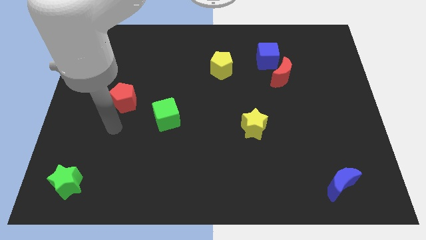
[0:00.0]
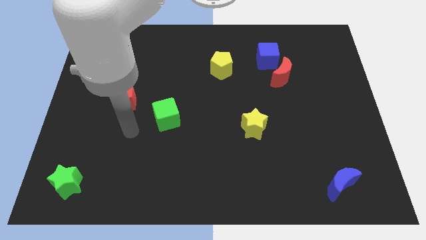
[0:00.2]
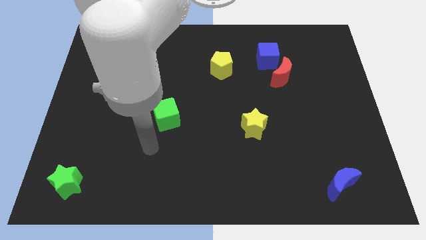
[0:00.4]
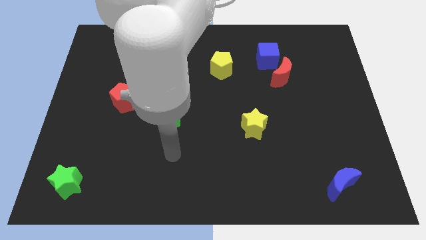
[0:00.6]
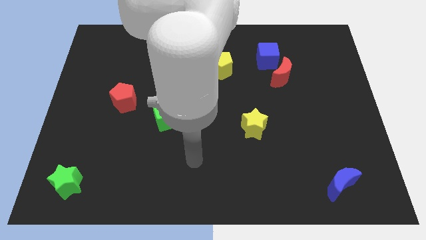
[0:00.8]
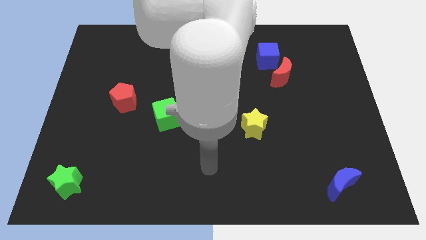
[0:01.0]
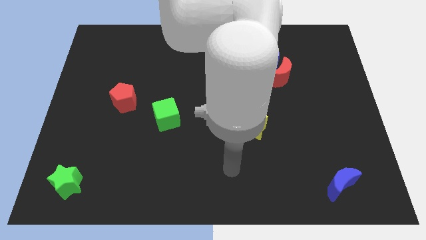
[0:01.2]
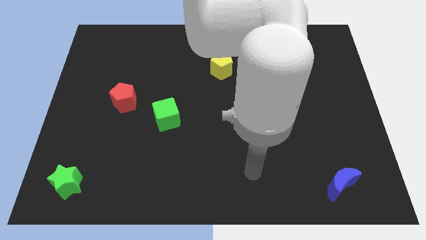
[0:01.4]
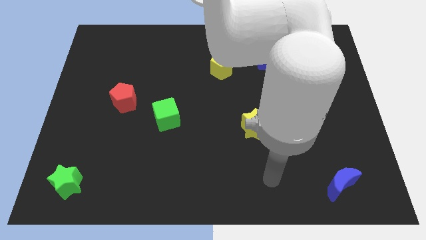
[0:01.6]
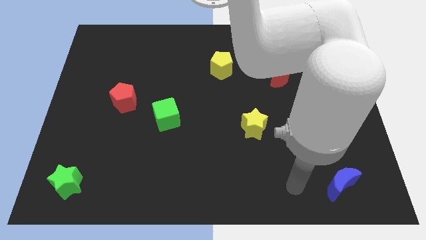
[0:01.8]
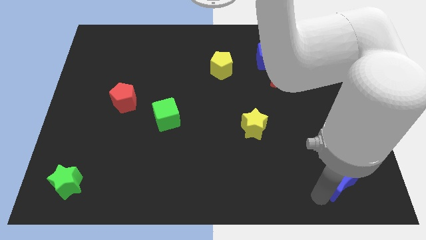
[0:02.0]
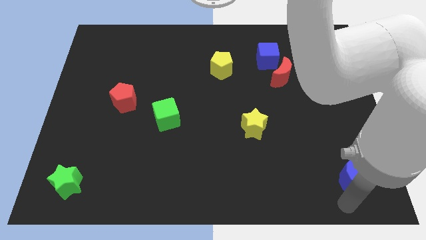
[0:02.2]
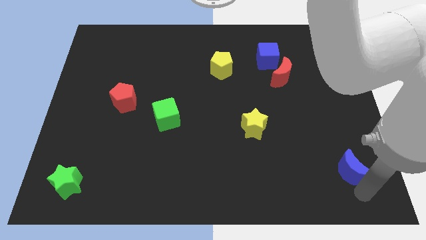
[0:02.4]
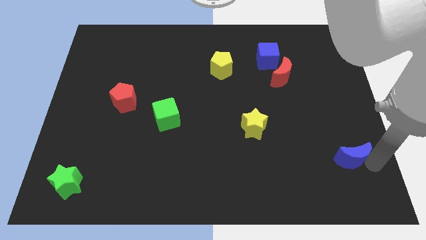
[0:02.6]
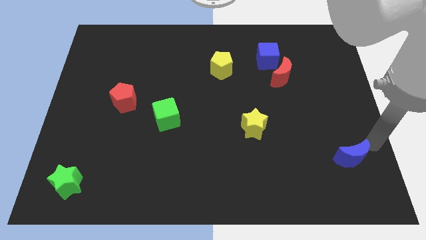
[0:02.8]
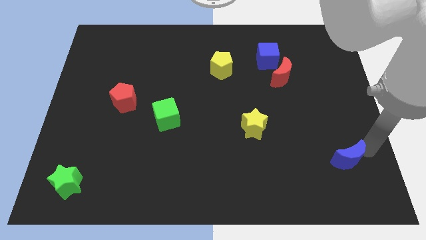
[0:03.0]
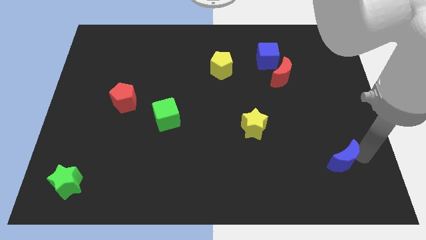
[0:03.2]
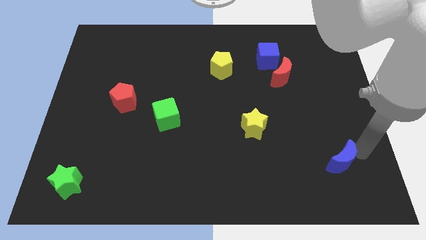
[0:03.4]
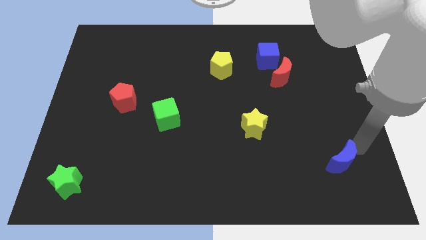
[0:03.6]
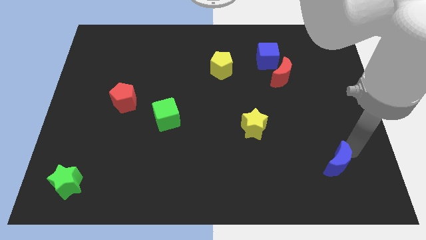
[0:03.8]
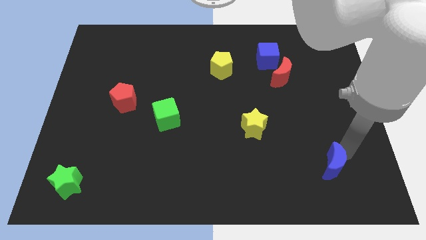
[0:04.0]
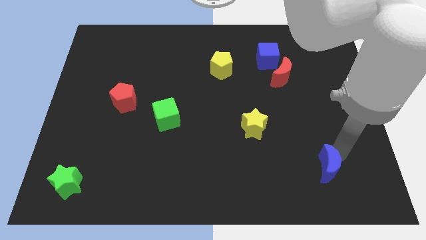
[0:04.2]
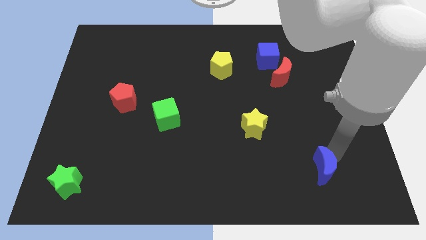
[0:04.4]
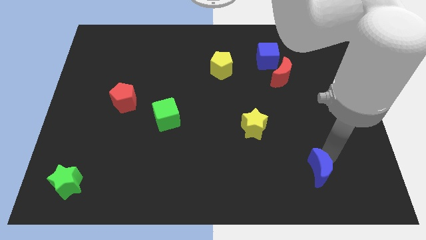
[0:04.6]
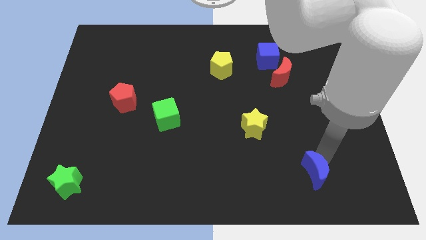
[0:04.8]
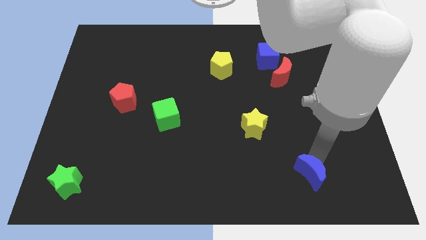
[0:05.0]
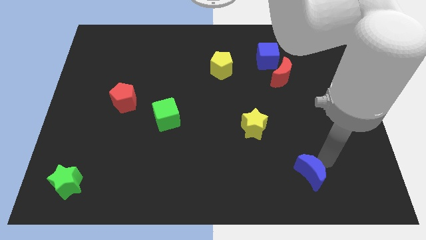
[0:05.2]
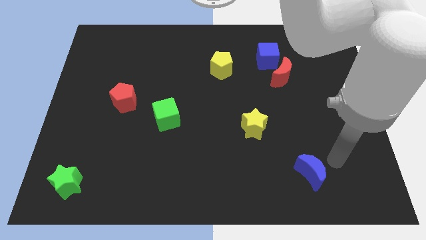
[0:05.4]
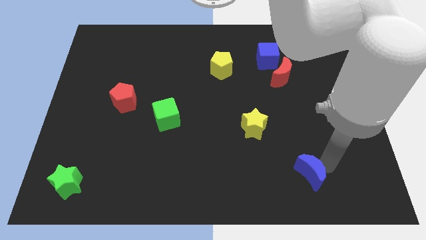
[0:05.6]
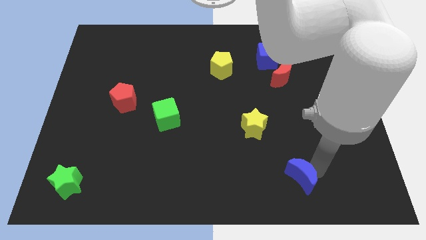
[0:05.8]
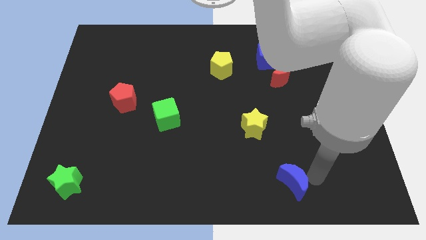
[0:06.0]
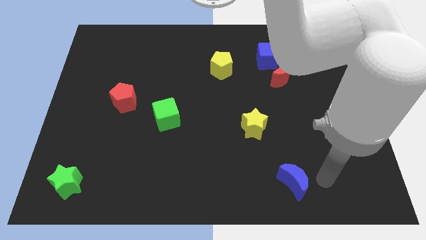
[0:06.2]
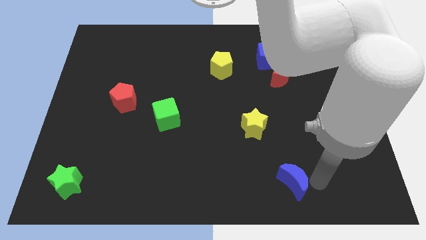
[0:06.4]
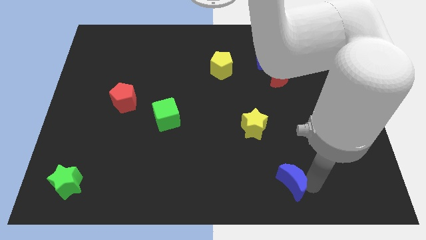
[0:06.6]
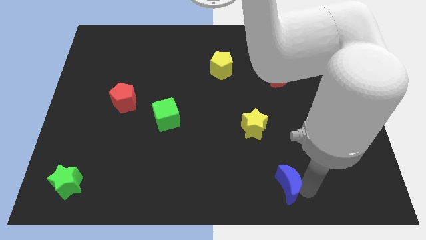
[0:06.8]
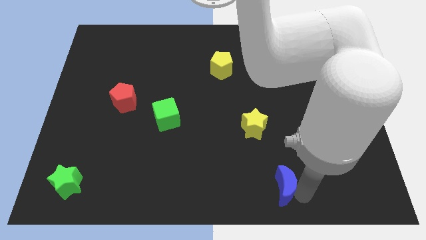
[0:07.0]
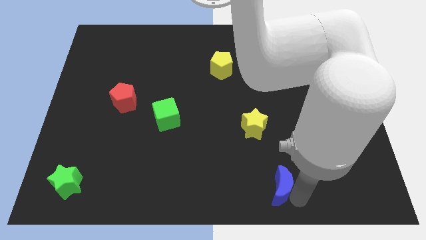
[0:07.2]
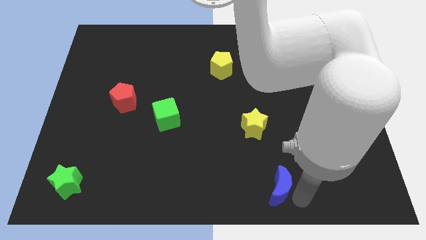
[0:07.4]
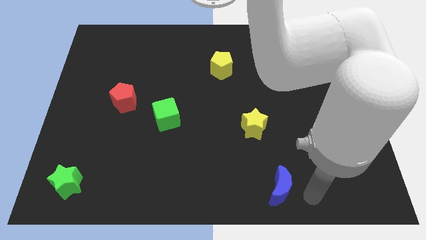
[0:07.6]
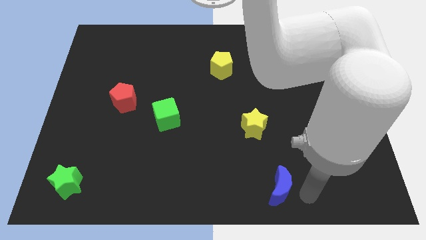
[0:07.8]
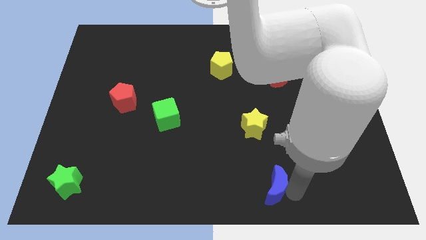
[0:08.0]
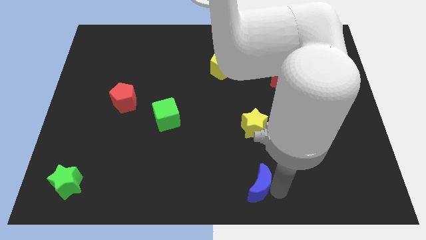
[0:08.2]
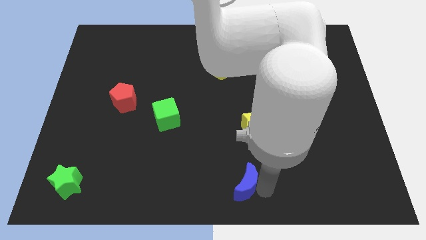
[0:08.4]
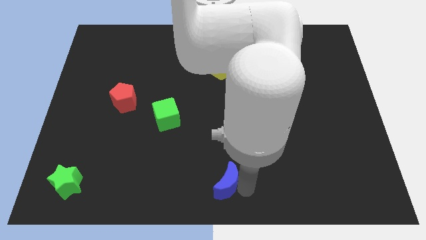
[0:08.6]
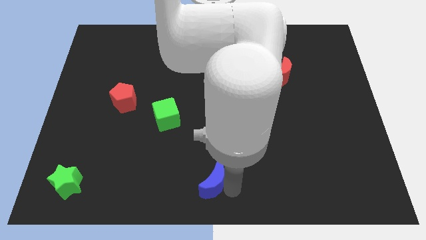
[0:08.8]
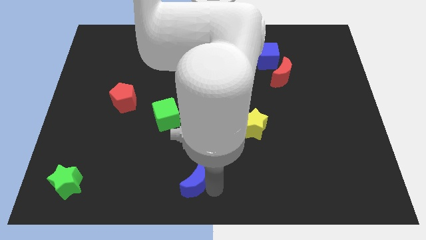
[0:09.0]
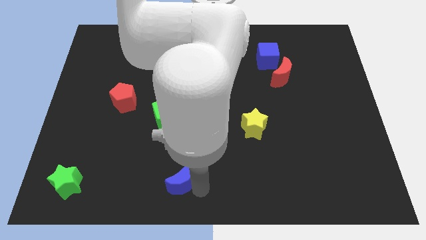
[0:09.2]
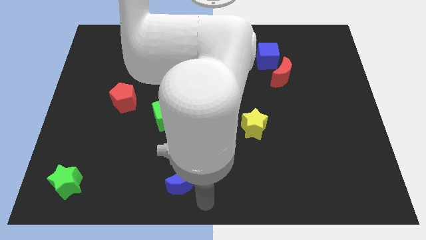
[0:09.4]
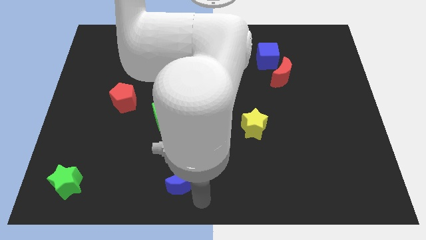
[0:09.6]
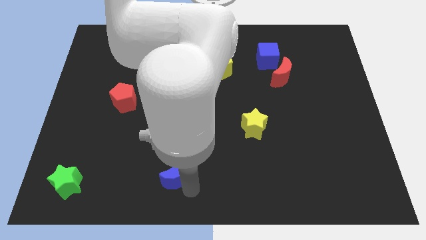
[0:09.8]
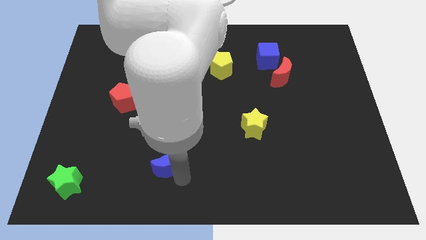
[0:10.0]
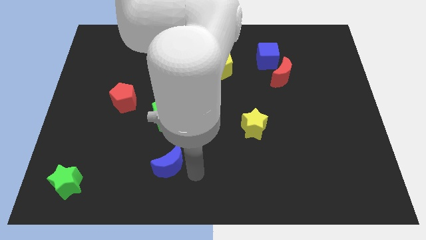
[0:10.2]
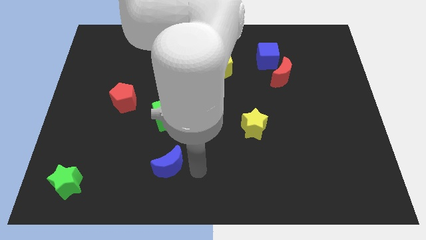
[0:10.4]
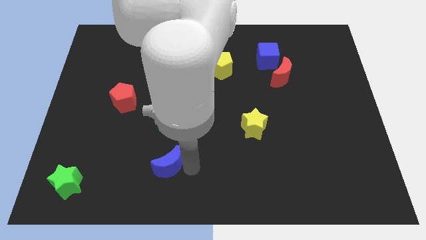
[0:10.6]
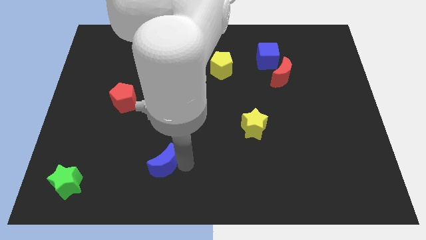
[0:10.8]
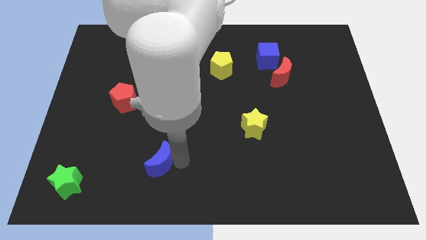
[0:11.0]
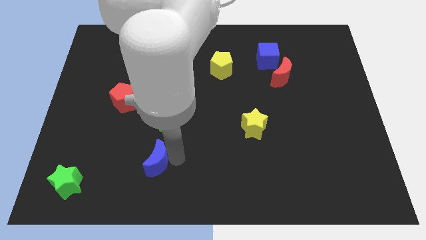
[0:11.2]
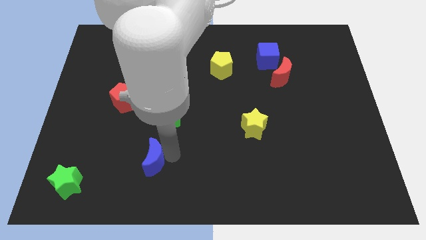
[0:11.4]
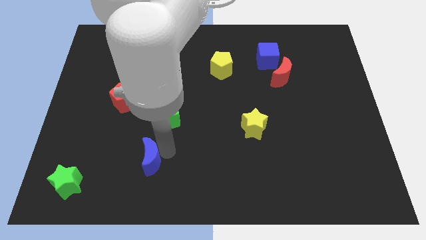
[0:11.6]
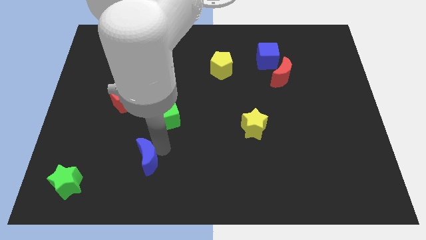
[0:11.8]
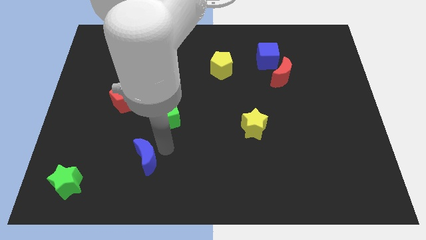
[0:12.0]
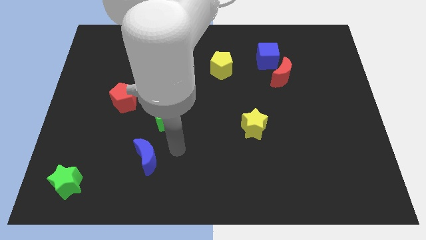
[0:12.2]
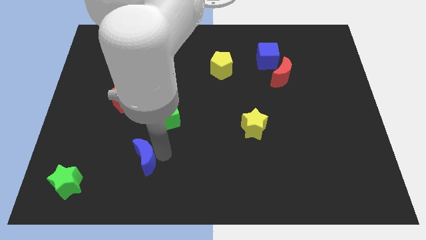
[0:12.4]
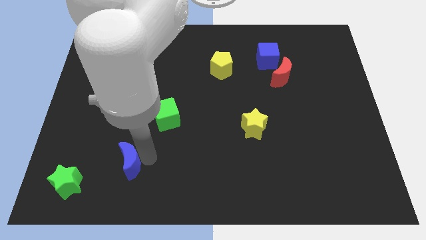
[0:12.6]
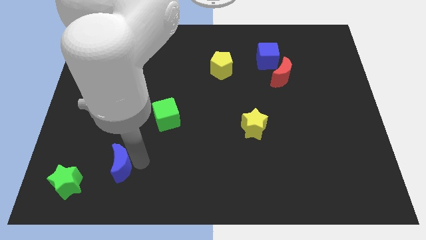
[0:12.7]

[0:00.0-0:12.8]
slide the blue moon diagonally up and to the right of the green star
